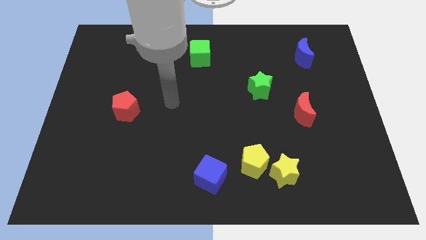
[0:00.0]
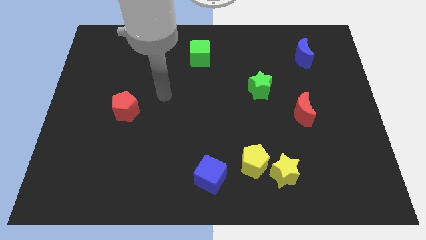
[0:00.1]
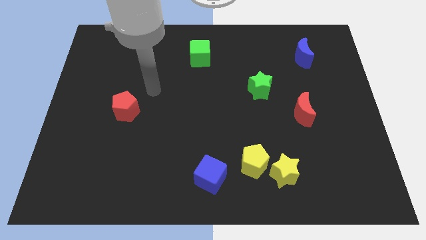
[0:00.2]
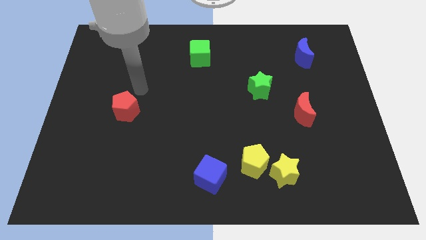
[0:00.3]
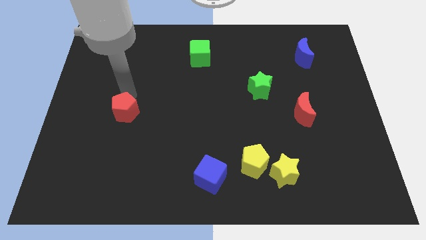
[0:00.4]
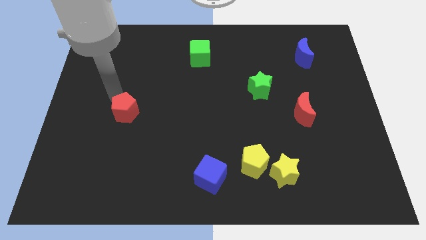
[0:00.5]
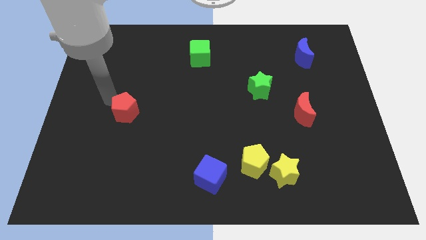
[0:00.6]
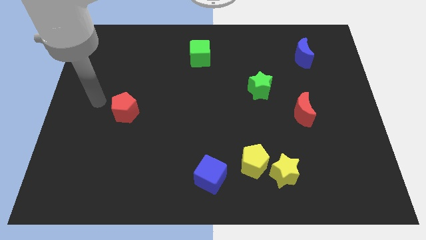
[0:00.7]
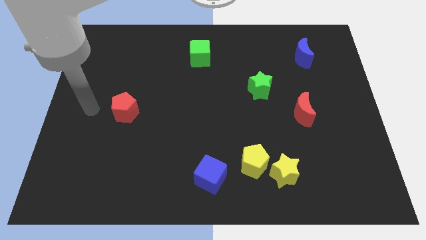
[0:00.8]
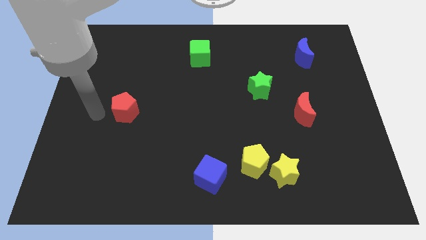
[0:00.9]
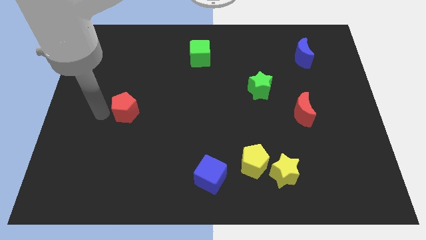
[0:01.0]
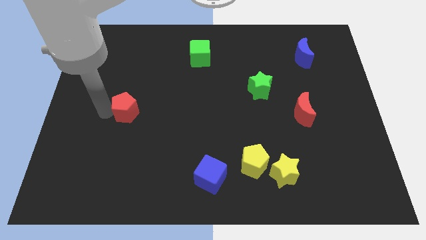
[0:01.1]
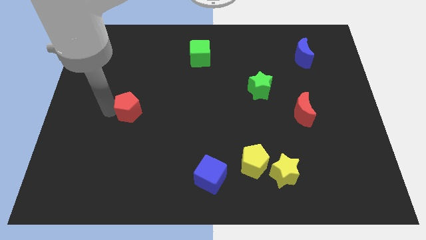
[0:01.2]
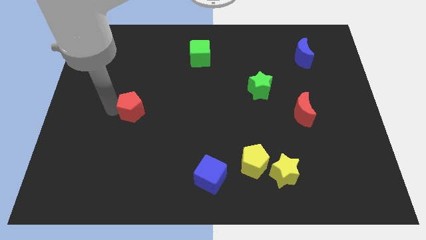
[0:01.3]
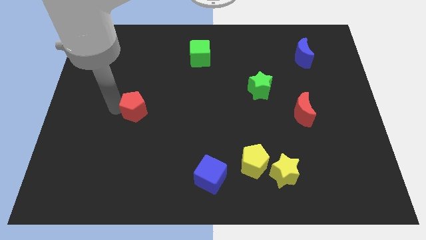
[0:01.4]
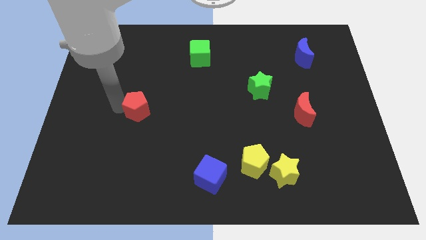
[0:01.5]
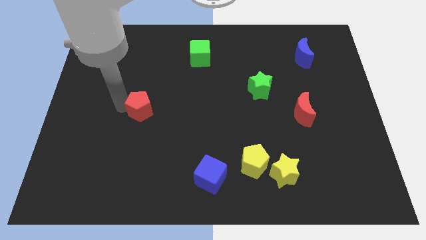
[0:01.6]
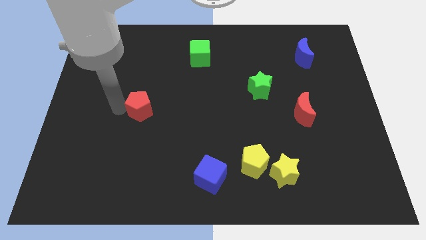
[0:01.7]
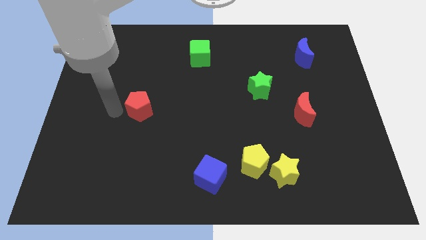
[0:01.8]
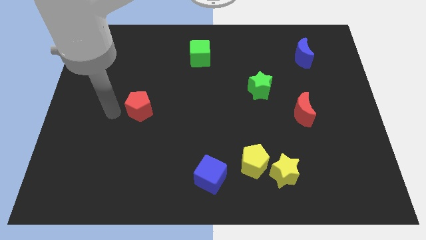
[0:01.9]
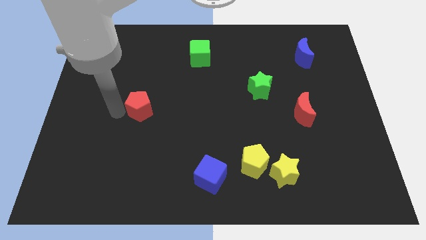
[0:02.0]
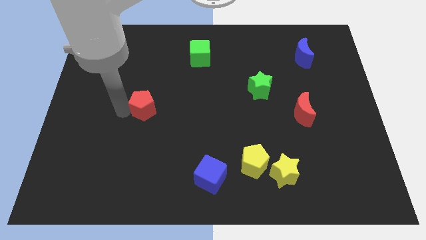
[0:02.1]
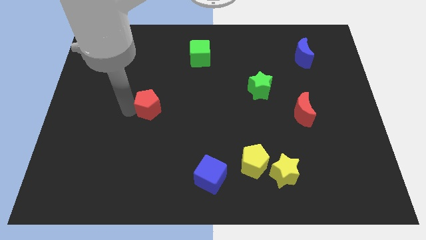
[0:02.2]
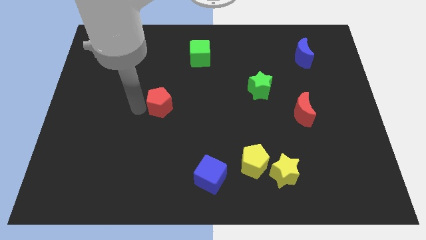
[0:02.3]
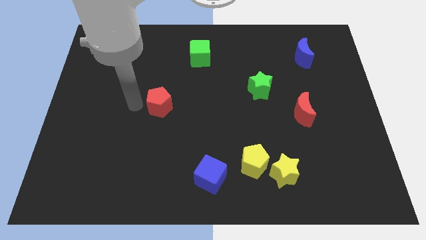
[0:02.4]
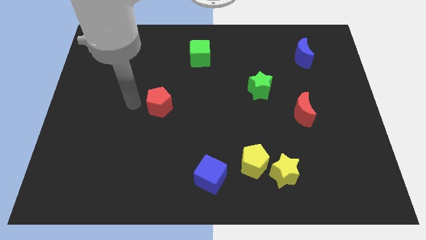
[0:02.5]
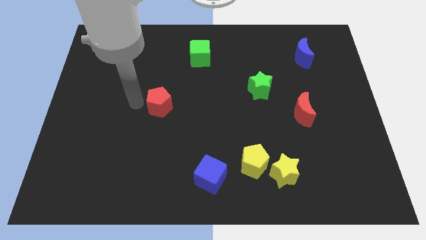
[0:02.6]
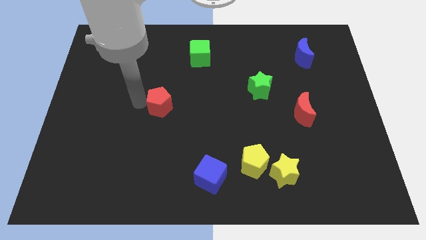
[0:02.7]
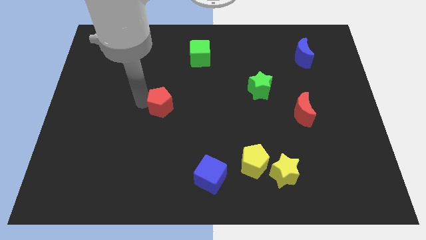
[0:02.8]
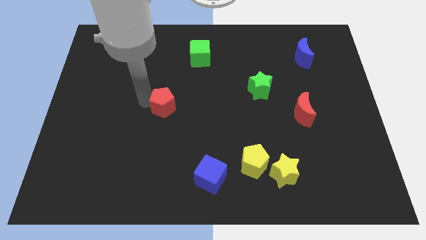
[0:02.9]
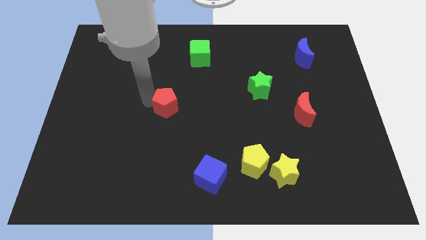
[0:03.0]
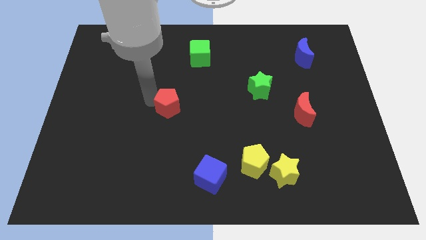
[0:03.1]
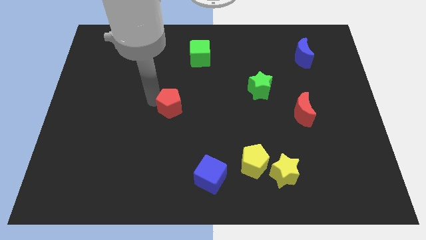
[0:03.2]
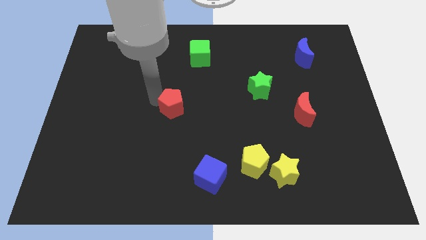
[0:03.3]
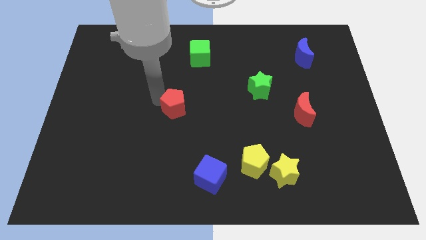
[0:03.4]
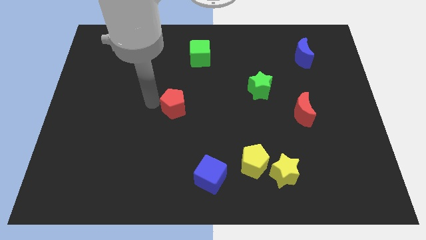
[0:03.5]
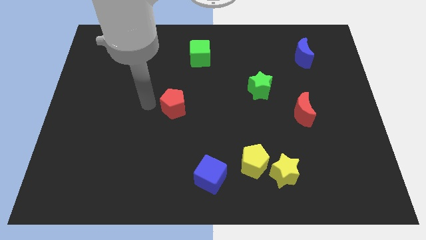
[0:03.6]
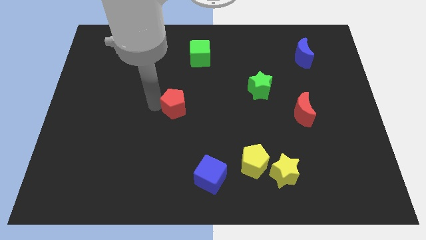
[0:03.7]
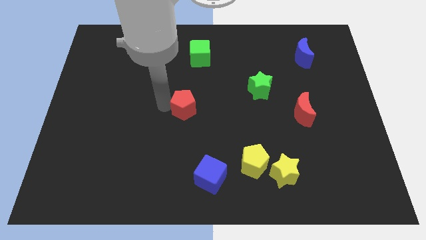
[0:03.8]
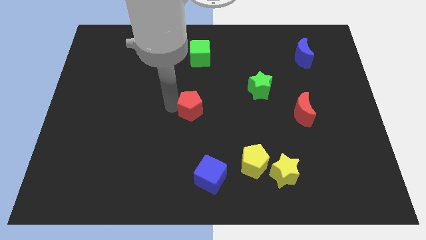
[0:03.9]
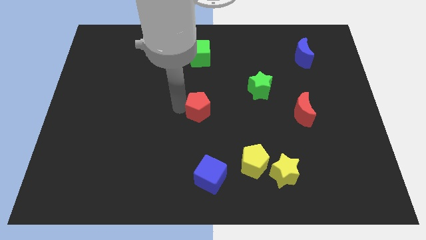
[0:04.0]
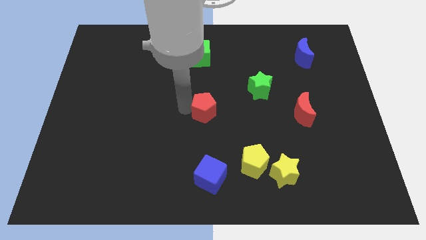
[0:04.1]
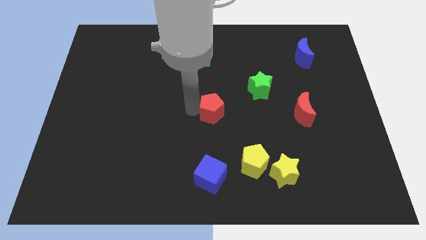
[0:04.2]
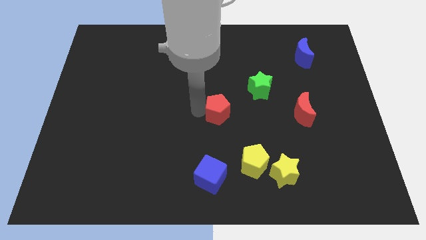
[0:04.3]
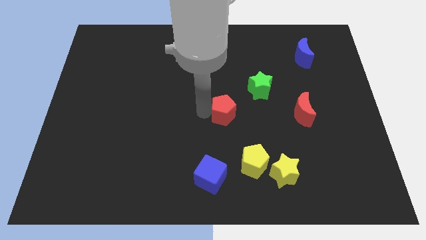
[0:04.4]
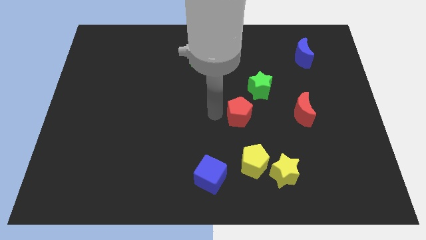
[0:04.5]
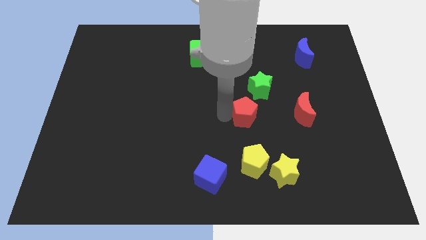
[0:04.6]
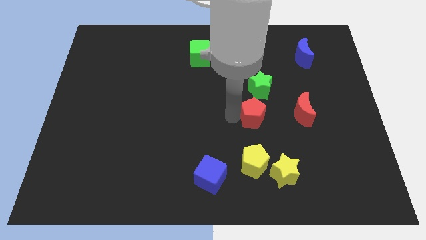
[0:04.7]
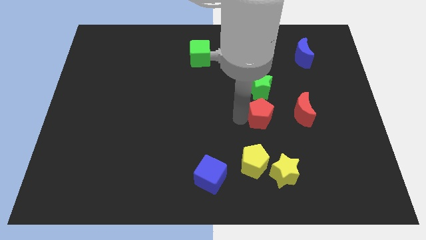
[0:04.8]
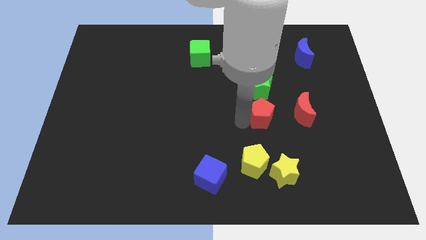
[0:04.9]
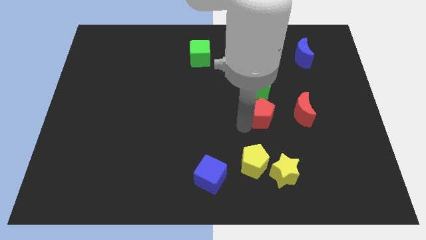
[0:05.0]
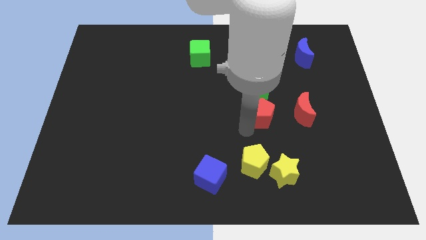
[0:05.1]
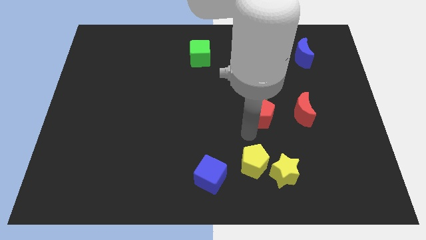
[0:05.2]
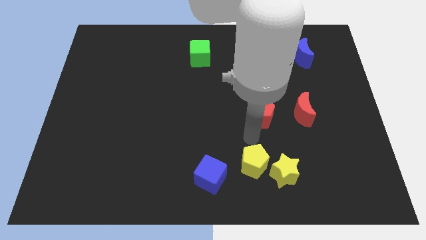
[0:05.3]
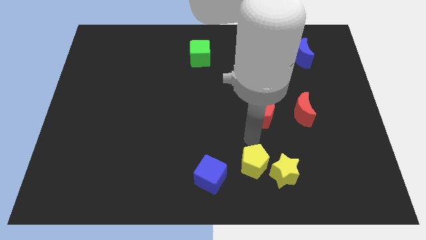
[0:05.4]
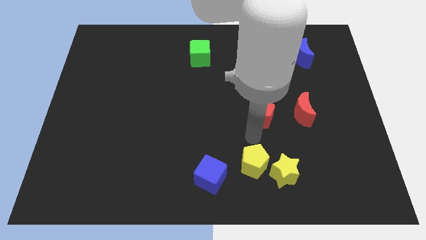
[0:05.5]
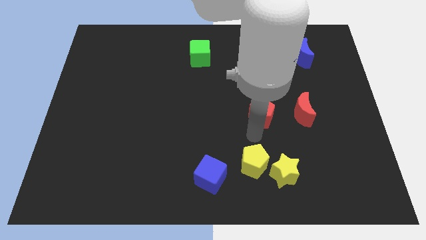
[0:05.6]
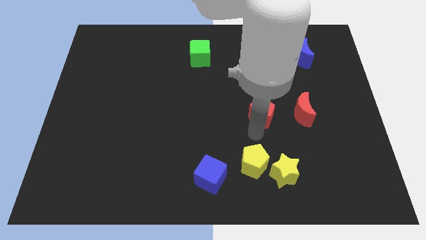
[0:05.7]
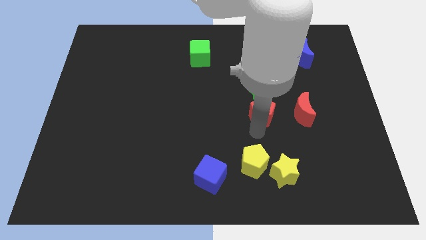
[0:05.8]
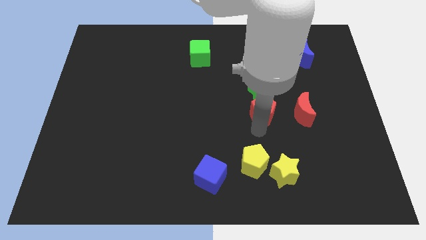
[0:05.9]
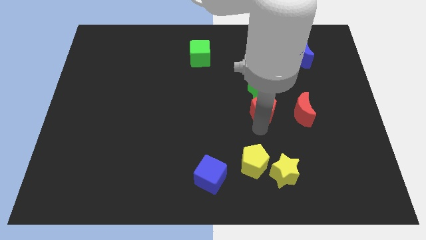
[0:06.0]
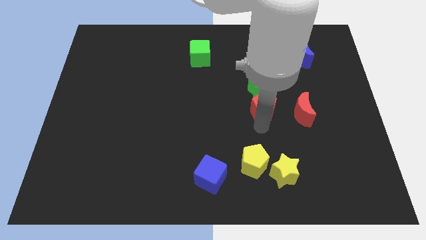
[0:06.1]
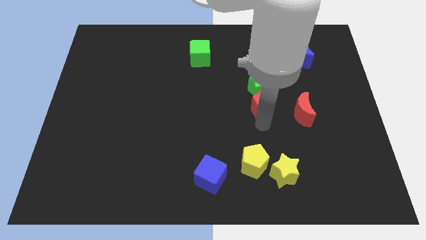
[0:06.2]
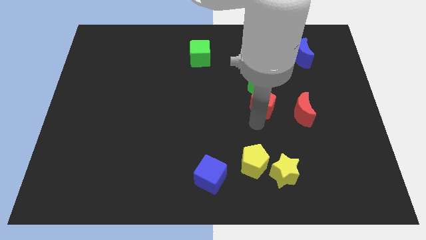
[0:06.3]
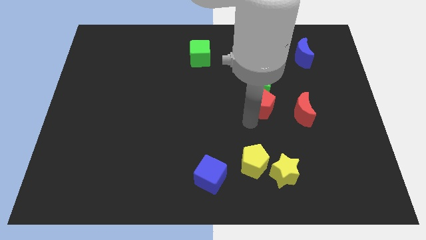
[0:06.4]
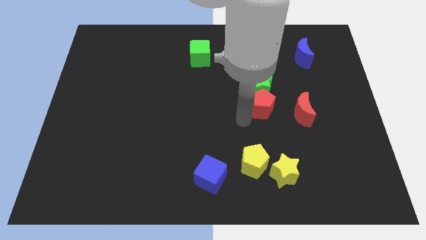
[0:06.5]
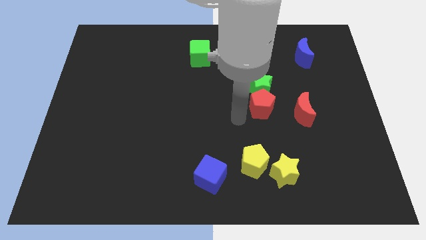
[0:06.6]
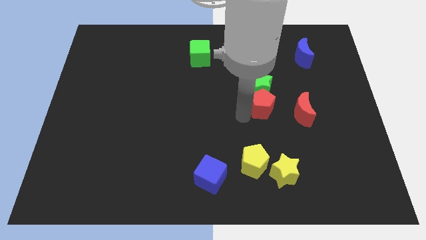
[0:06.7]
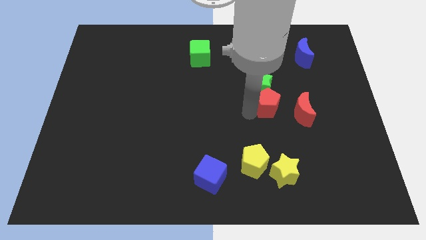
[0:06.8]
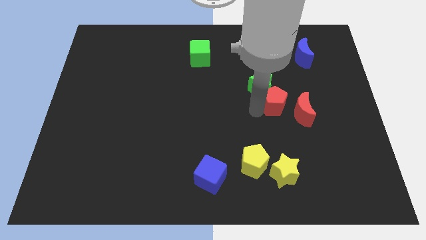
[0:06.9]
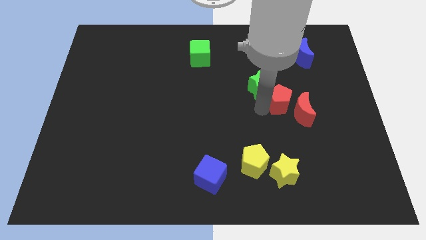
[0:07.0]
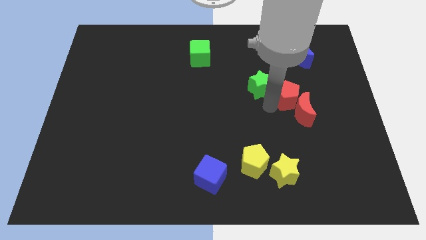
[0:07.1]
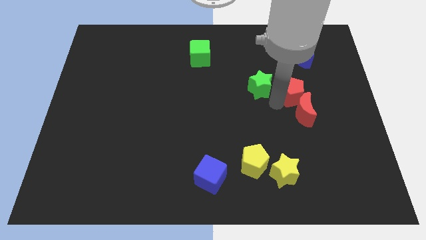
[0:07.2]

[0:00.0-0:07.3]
push the red pentagon to the bottom side of the blue moon
